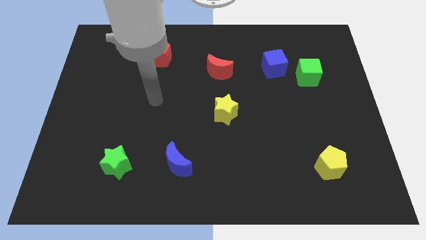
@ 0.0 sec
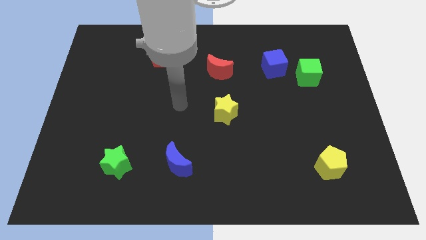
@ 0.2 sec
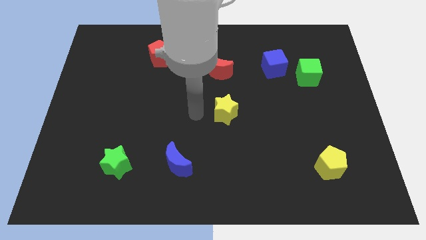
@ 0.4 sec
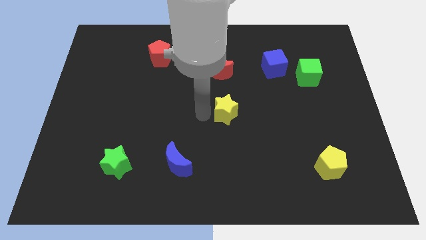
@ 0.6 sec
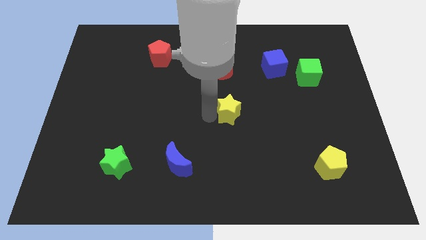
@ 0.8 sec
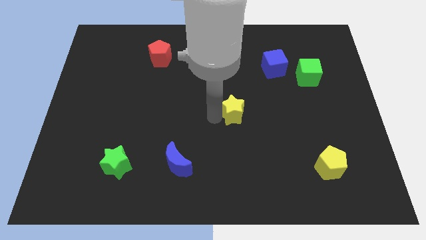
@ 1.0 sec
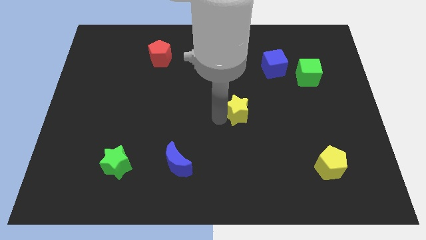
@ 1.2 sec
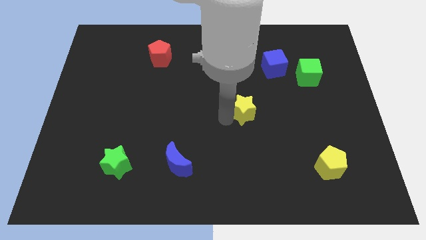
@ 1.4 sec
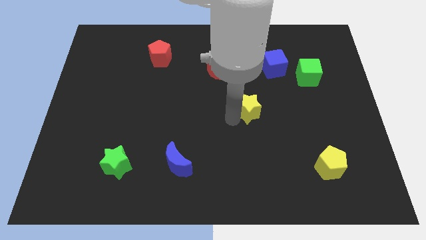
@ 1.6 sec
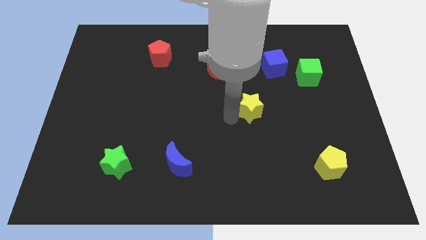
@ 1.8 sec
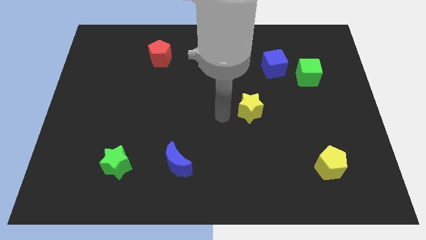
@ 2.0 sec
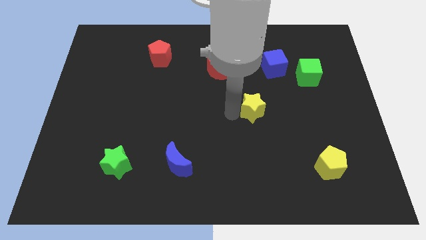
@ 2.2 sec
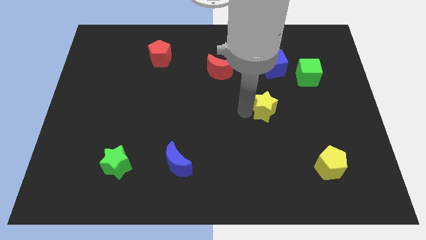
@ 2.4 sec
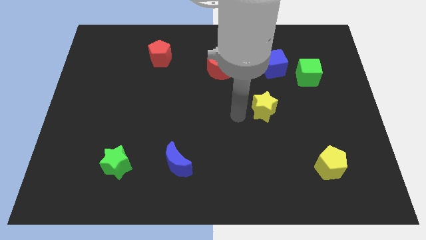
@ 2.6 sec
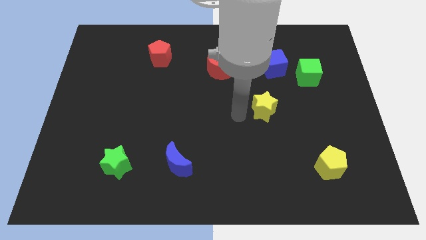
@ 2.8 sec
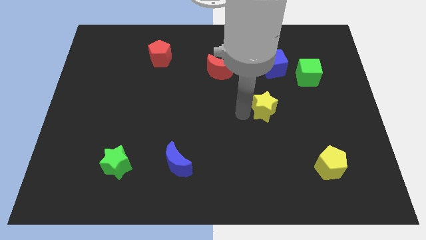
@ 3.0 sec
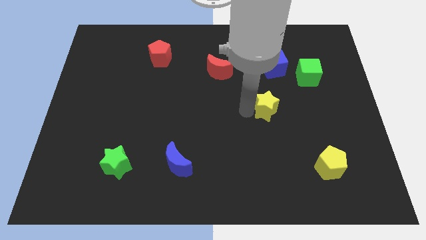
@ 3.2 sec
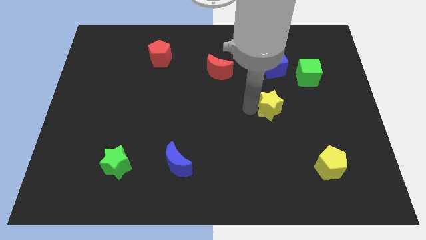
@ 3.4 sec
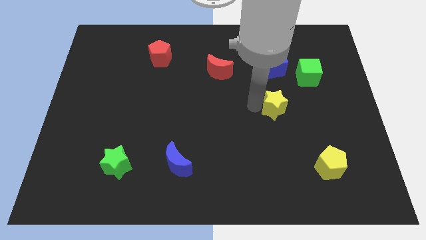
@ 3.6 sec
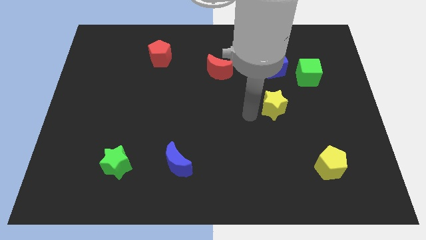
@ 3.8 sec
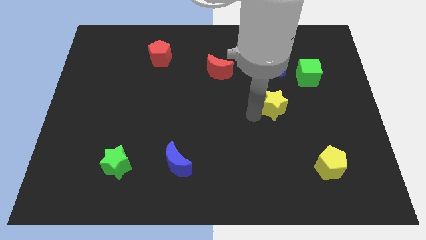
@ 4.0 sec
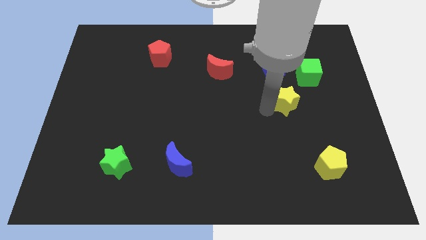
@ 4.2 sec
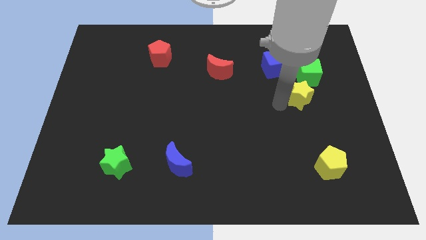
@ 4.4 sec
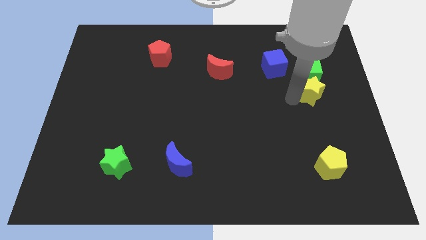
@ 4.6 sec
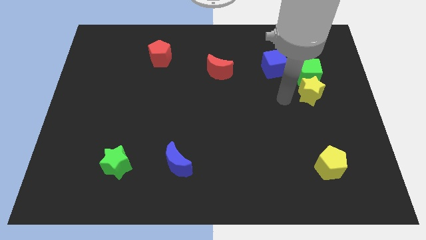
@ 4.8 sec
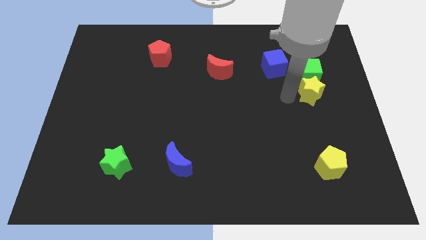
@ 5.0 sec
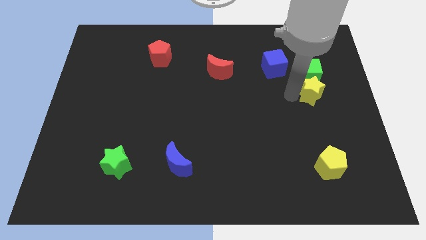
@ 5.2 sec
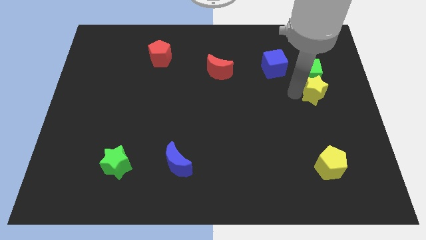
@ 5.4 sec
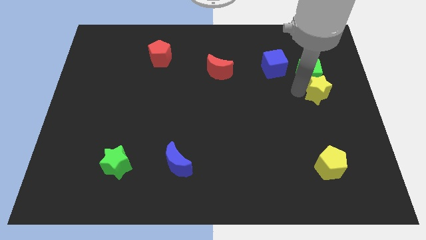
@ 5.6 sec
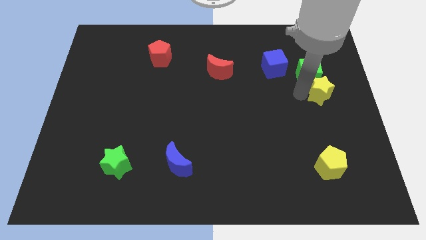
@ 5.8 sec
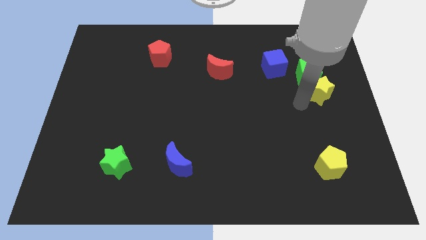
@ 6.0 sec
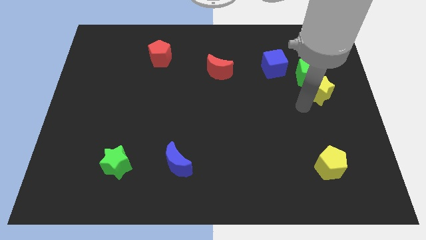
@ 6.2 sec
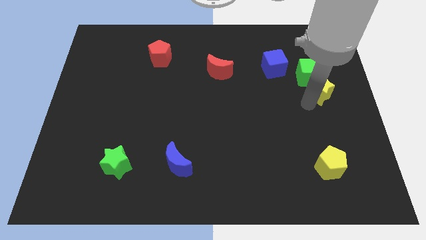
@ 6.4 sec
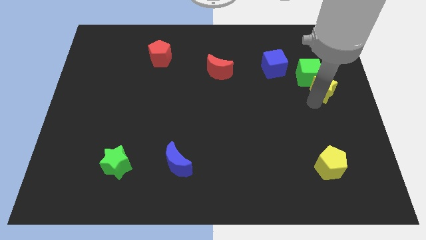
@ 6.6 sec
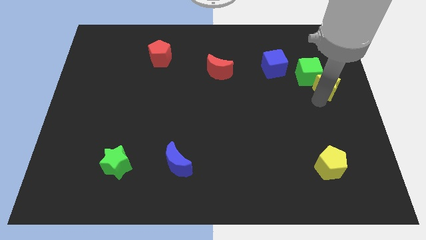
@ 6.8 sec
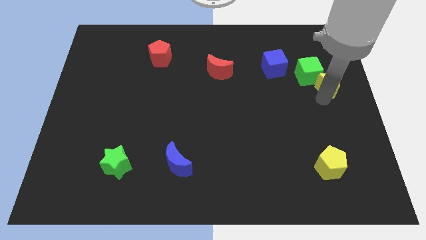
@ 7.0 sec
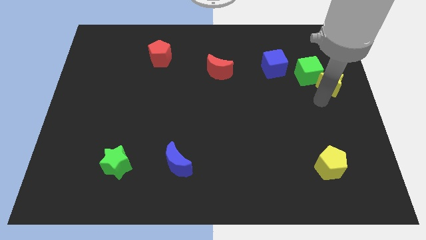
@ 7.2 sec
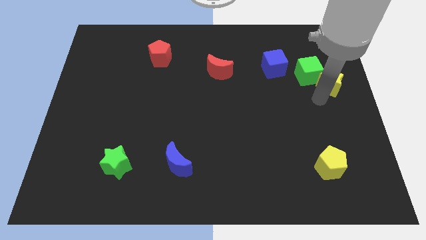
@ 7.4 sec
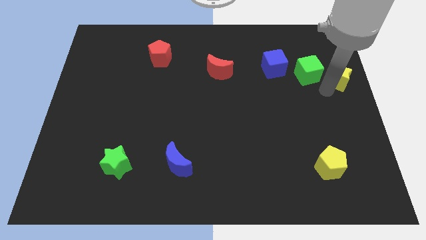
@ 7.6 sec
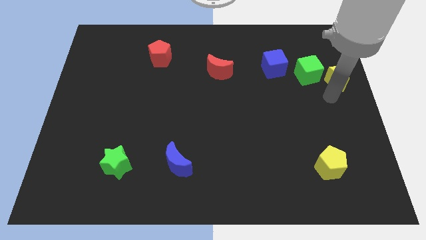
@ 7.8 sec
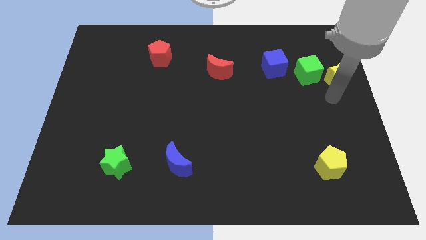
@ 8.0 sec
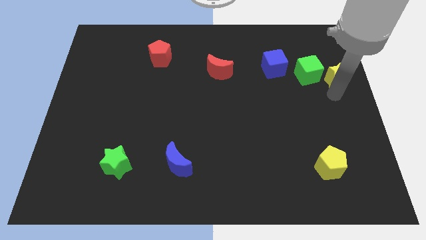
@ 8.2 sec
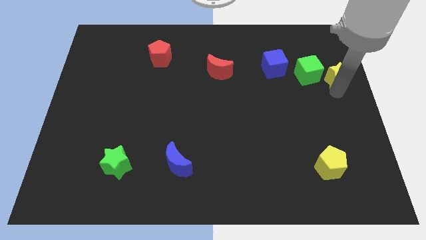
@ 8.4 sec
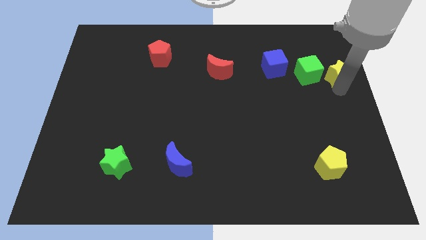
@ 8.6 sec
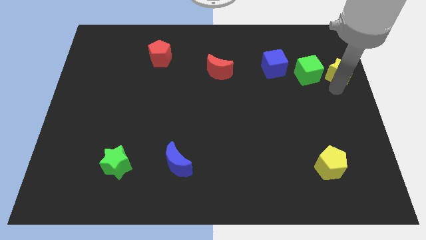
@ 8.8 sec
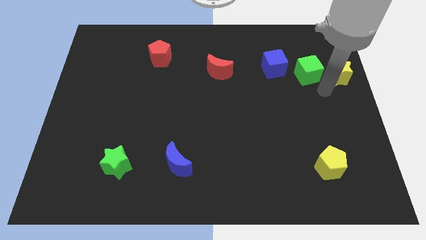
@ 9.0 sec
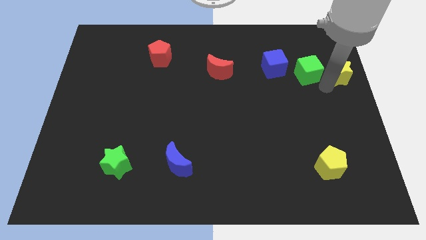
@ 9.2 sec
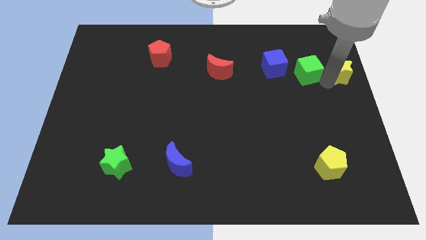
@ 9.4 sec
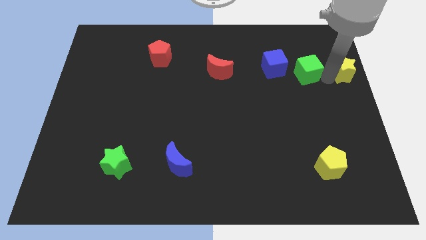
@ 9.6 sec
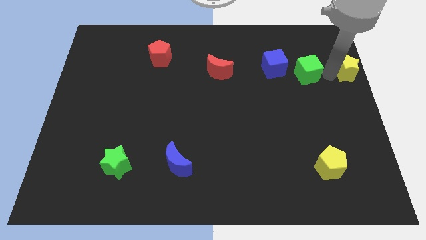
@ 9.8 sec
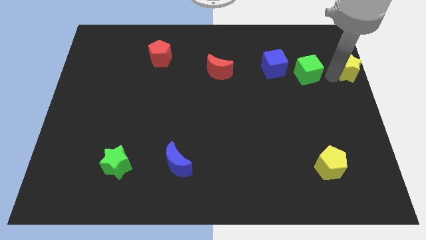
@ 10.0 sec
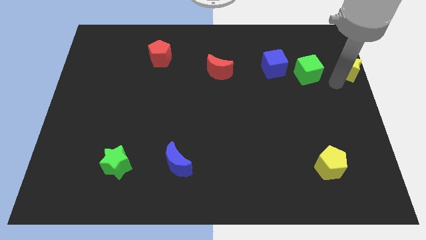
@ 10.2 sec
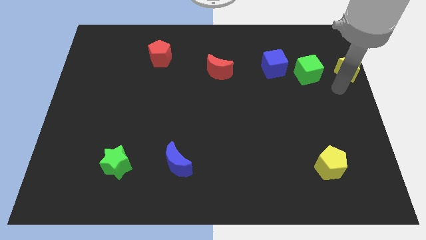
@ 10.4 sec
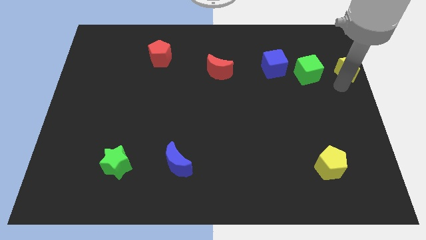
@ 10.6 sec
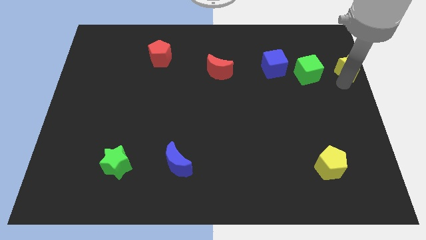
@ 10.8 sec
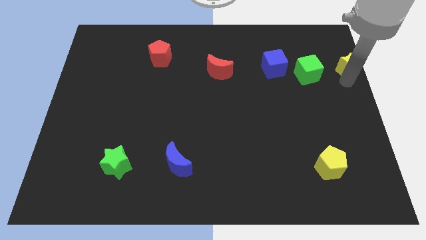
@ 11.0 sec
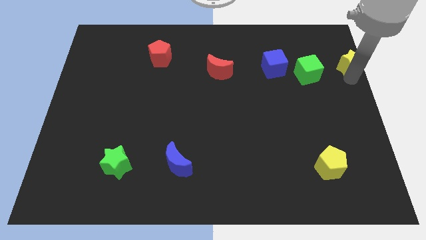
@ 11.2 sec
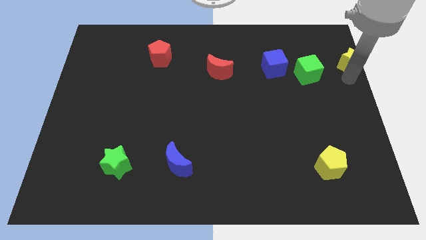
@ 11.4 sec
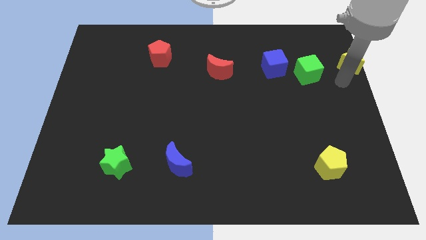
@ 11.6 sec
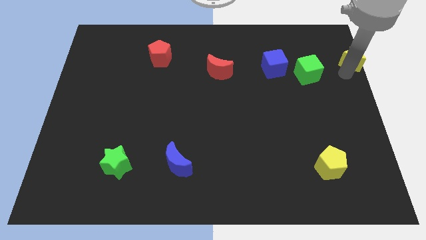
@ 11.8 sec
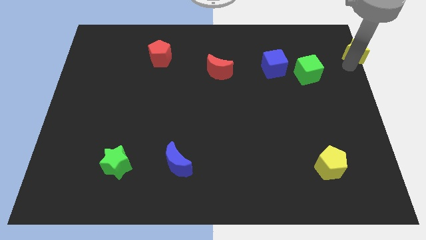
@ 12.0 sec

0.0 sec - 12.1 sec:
put the yellow star to the top right corner

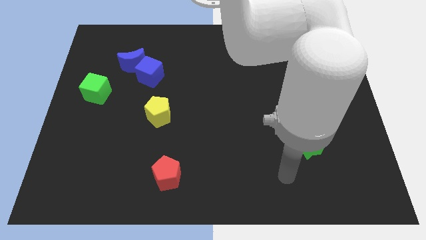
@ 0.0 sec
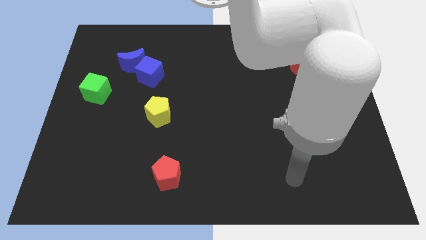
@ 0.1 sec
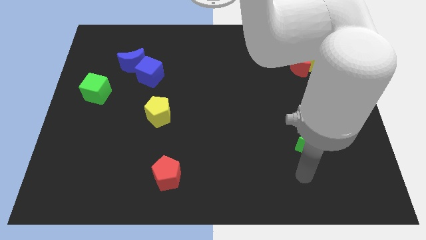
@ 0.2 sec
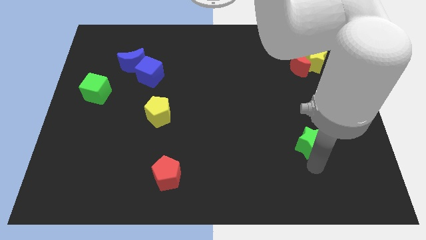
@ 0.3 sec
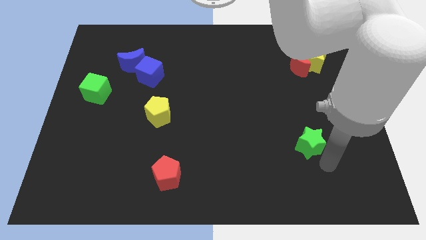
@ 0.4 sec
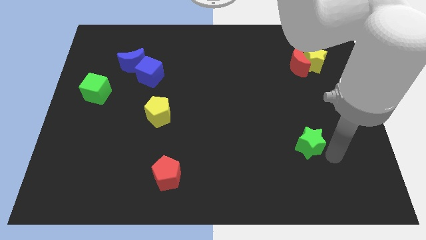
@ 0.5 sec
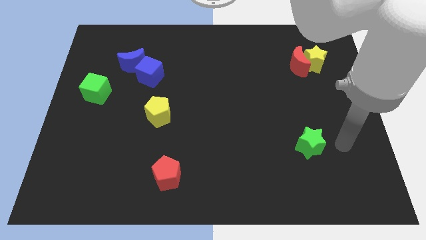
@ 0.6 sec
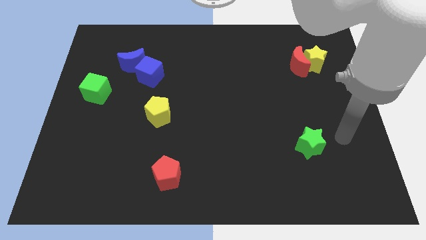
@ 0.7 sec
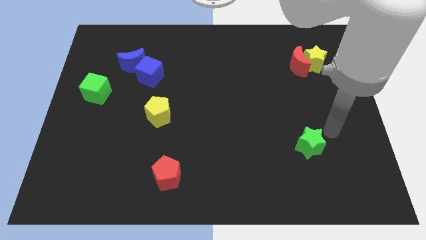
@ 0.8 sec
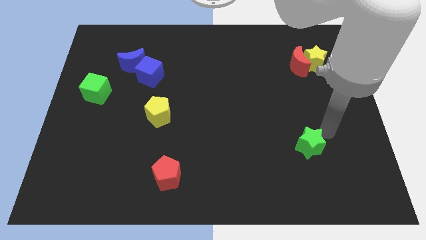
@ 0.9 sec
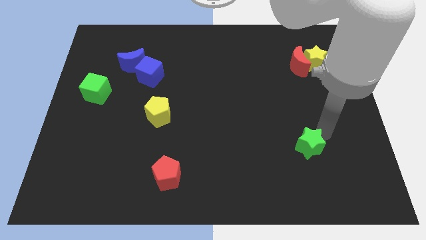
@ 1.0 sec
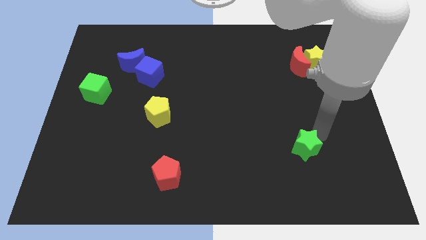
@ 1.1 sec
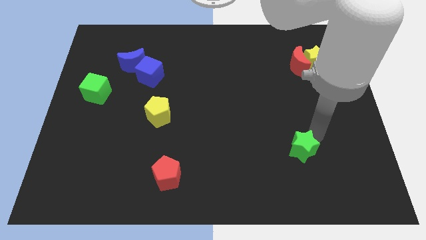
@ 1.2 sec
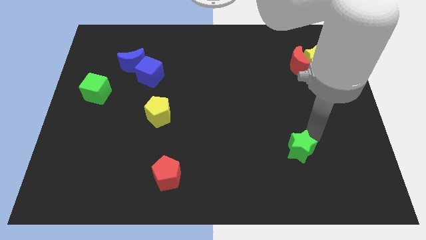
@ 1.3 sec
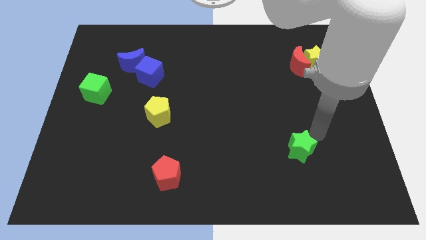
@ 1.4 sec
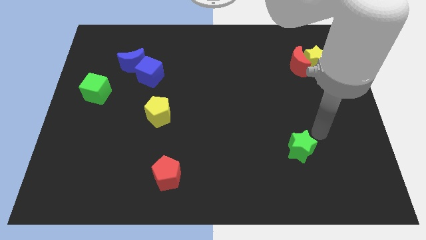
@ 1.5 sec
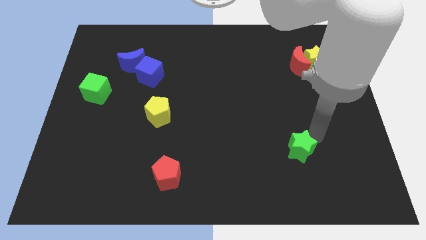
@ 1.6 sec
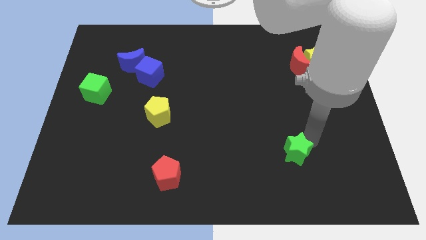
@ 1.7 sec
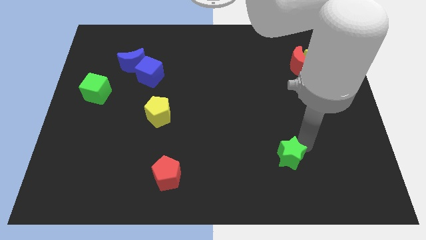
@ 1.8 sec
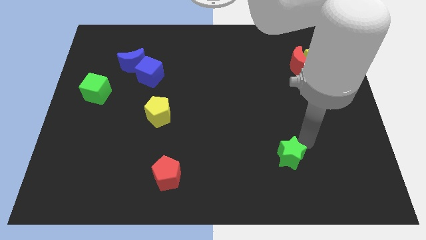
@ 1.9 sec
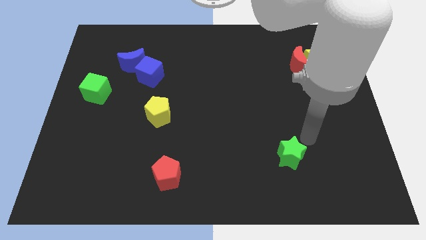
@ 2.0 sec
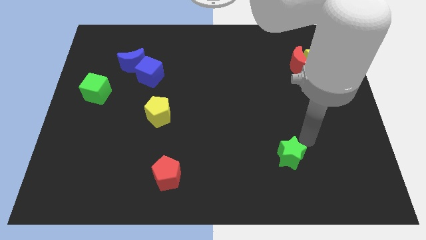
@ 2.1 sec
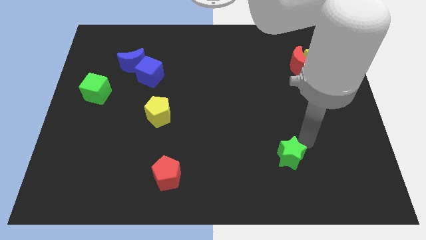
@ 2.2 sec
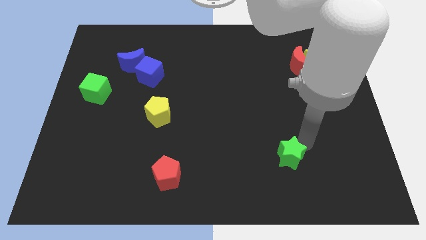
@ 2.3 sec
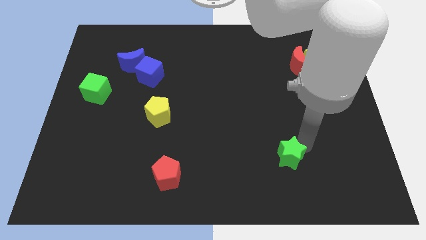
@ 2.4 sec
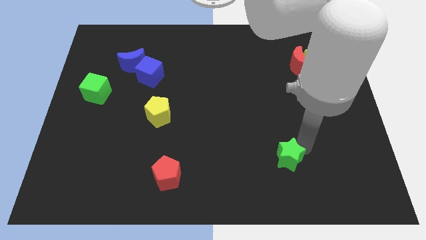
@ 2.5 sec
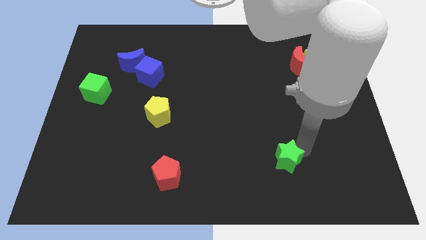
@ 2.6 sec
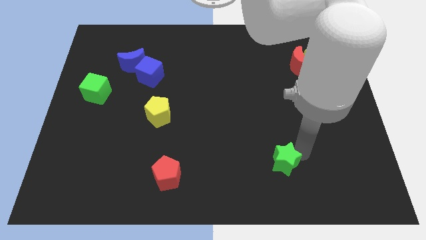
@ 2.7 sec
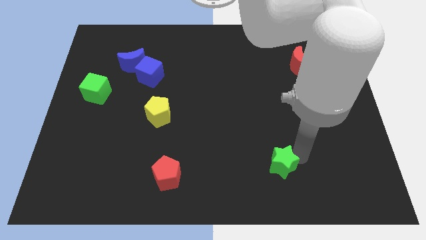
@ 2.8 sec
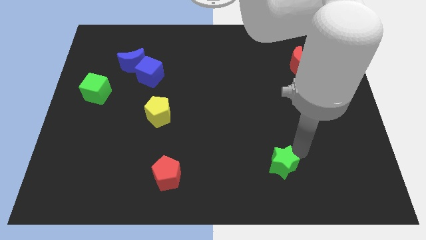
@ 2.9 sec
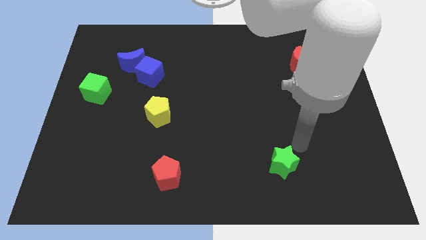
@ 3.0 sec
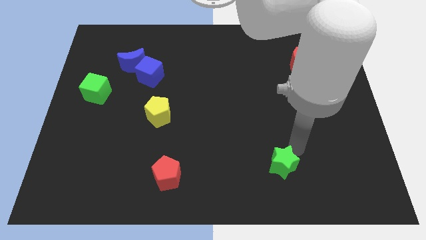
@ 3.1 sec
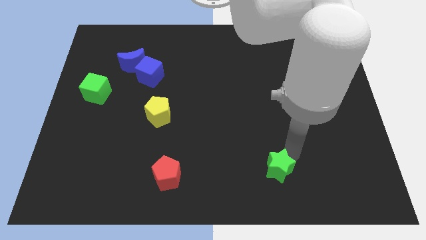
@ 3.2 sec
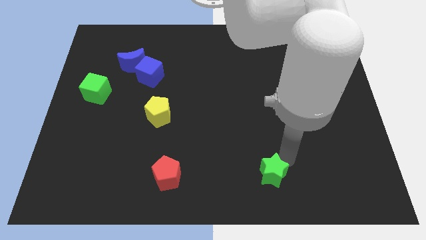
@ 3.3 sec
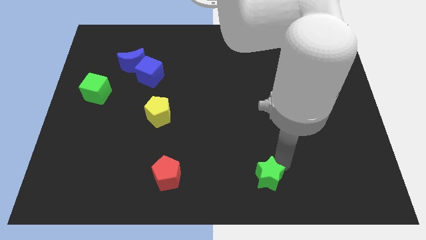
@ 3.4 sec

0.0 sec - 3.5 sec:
move the green star to the bottom side
